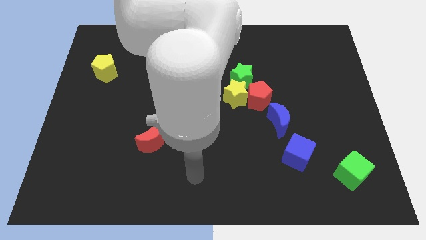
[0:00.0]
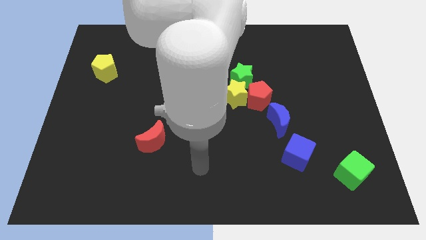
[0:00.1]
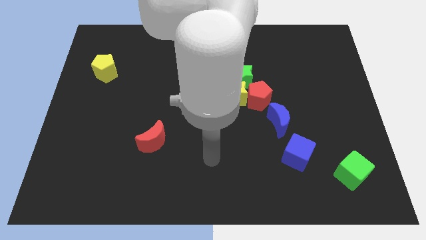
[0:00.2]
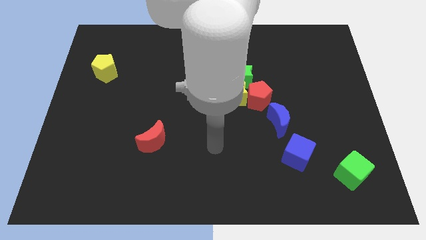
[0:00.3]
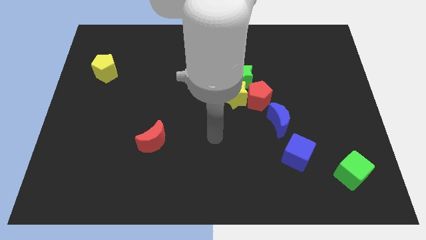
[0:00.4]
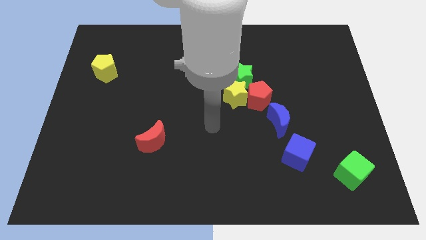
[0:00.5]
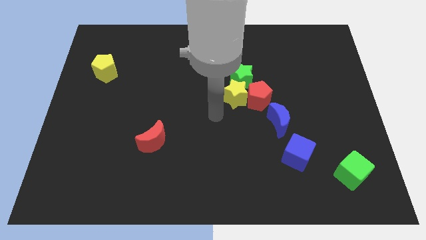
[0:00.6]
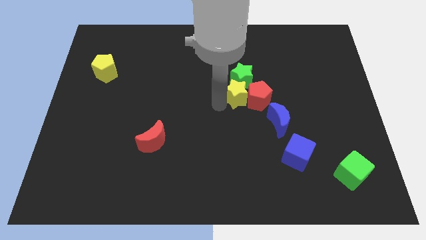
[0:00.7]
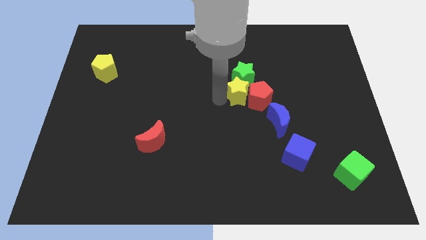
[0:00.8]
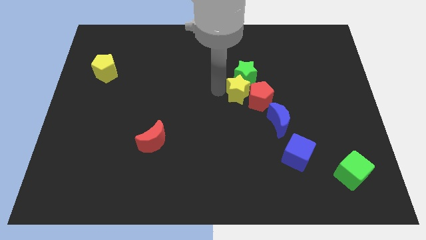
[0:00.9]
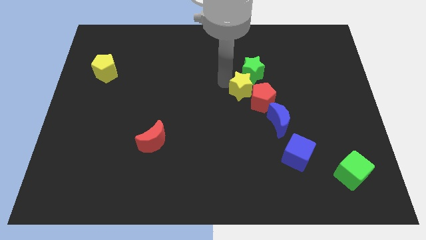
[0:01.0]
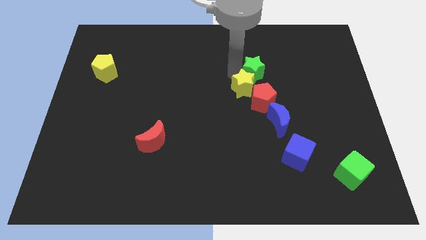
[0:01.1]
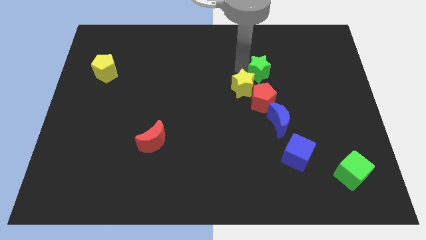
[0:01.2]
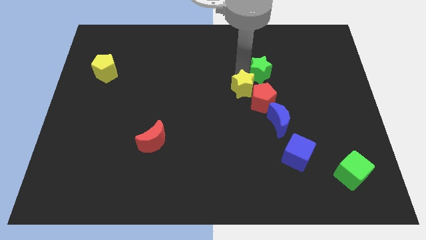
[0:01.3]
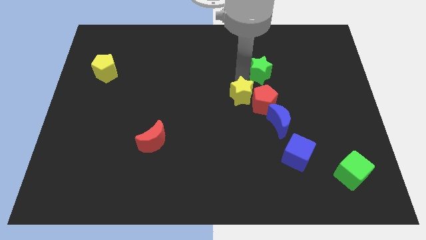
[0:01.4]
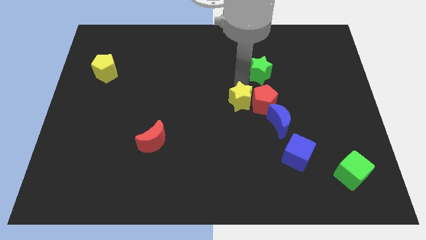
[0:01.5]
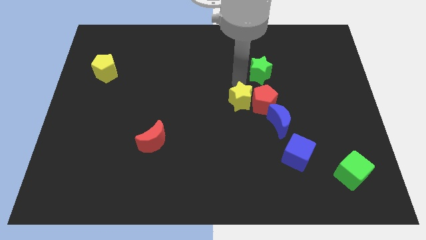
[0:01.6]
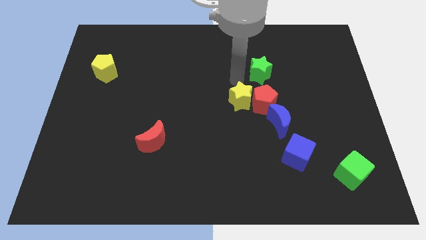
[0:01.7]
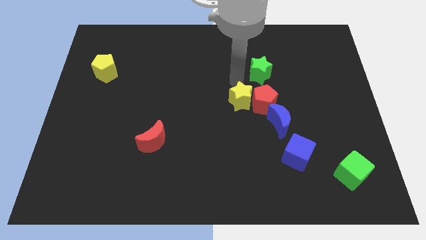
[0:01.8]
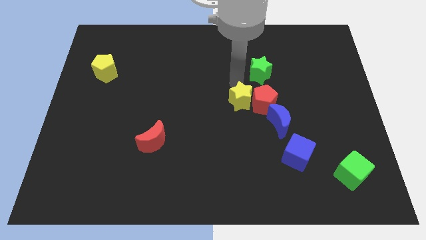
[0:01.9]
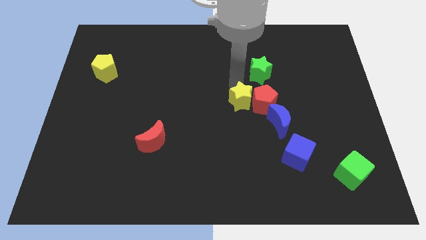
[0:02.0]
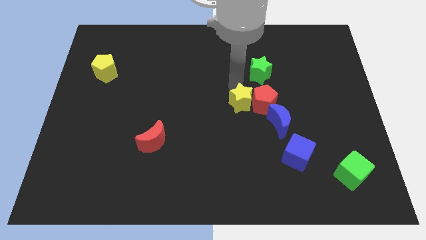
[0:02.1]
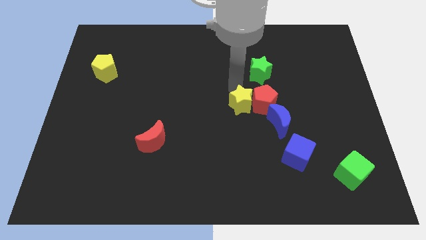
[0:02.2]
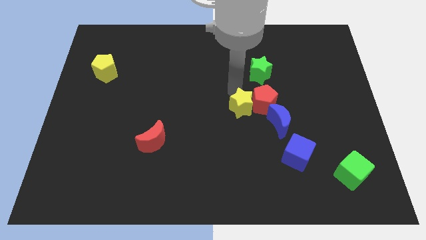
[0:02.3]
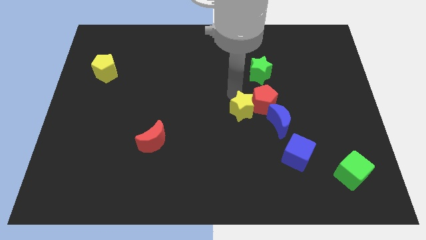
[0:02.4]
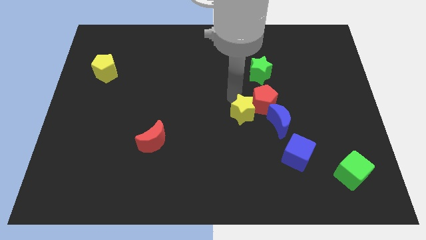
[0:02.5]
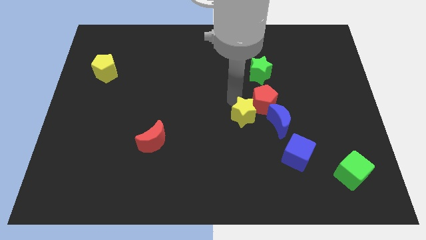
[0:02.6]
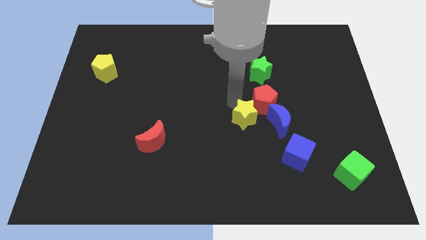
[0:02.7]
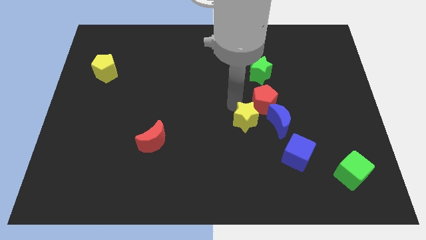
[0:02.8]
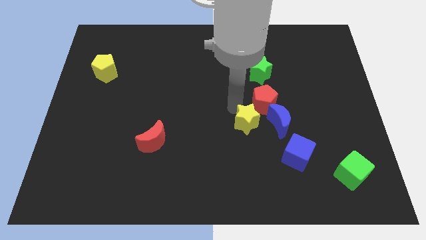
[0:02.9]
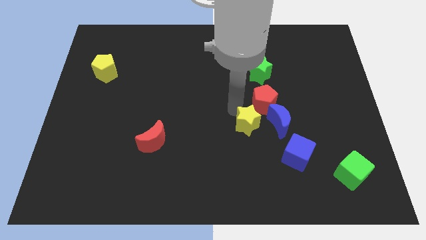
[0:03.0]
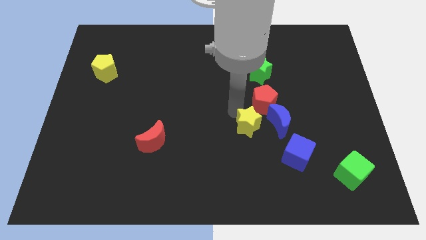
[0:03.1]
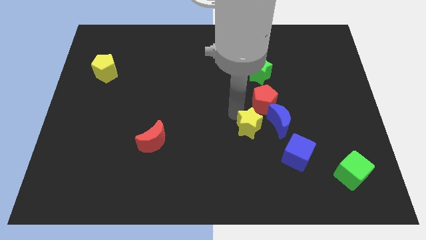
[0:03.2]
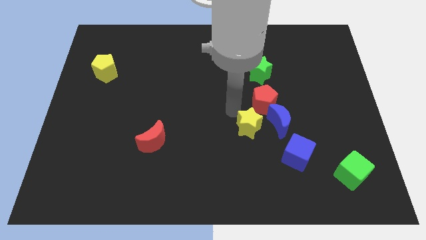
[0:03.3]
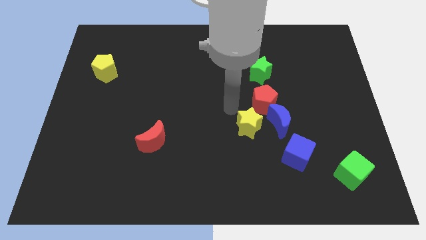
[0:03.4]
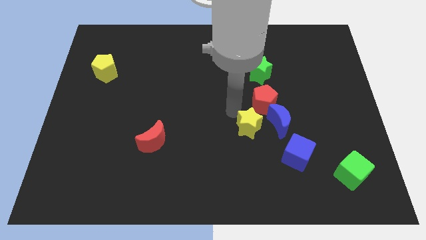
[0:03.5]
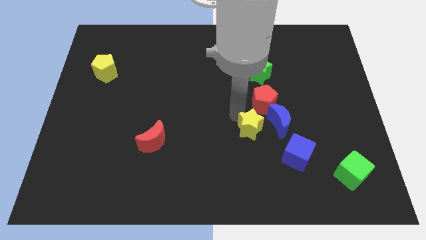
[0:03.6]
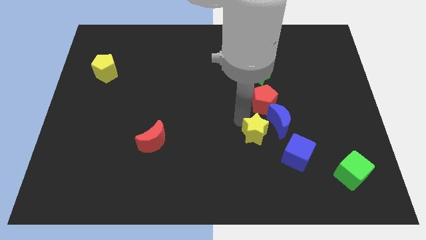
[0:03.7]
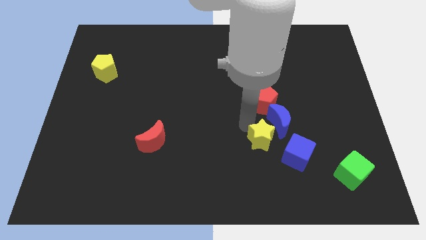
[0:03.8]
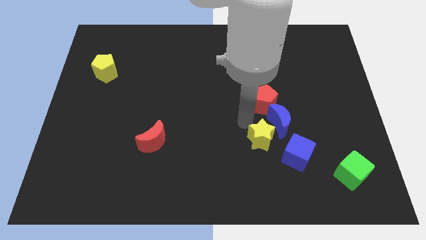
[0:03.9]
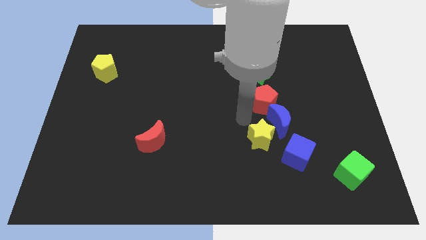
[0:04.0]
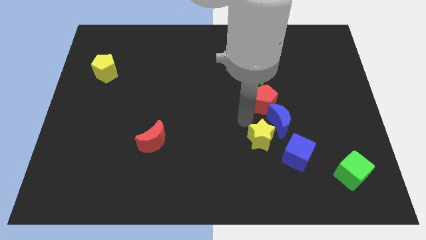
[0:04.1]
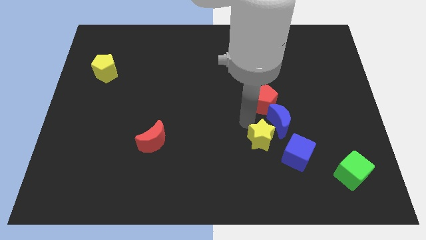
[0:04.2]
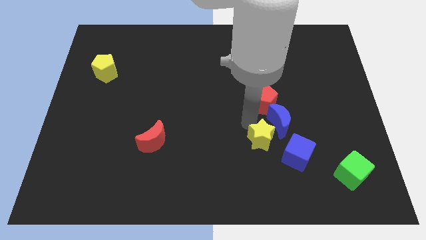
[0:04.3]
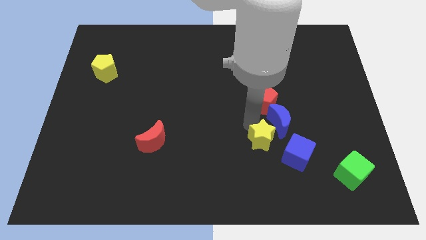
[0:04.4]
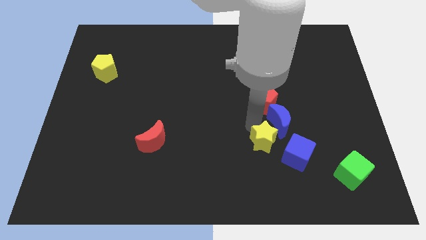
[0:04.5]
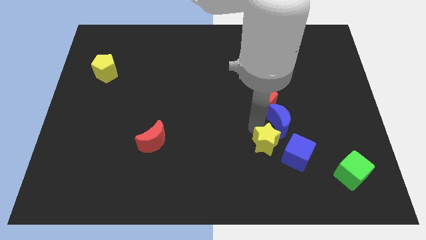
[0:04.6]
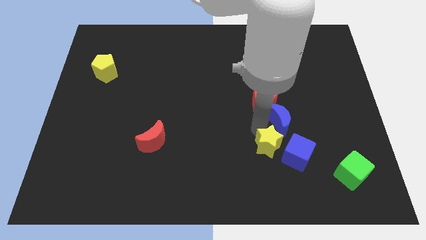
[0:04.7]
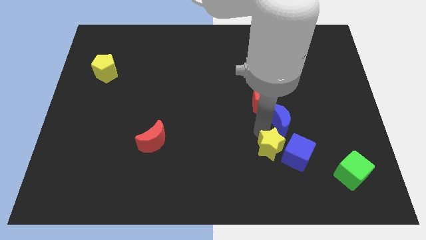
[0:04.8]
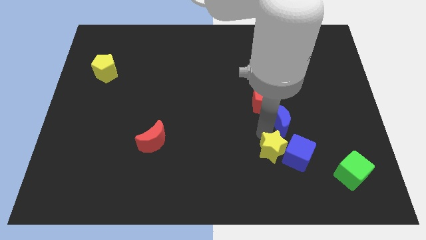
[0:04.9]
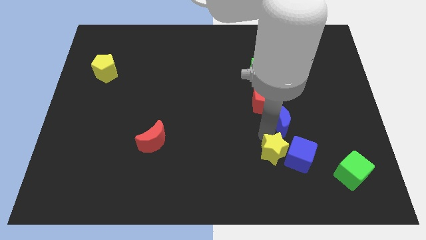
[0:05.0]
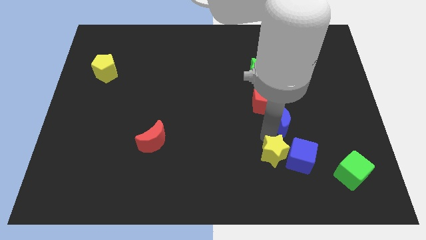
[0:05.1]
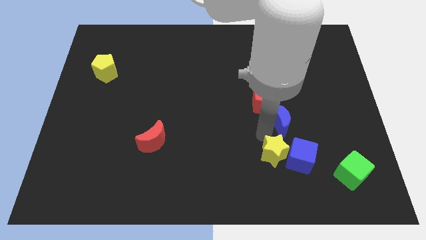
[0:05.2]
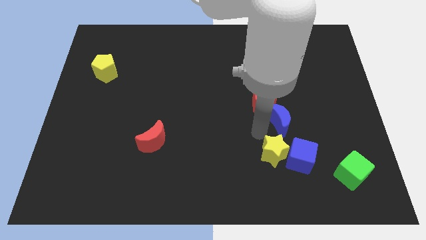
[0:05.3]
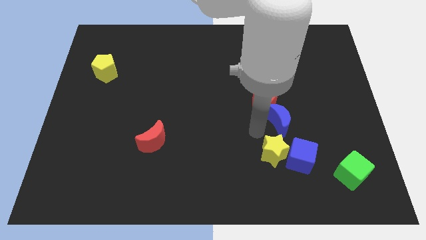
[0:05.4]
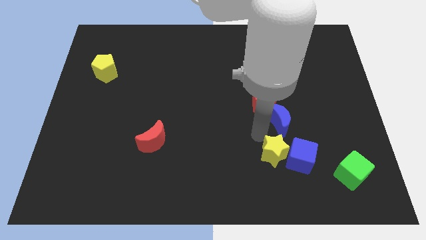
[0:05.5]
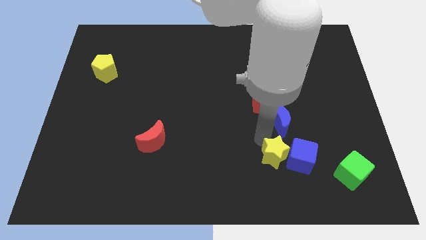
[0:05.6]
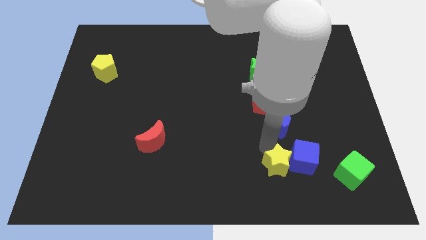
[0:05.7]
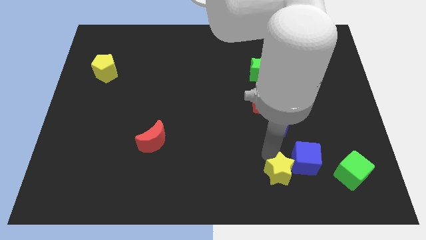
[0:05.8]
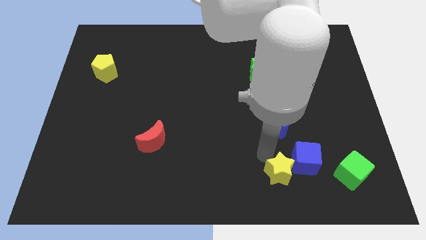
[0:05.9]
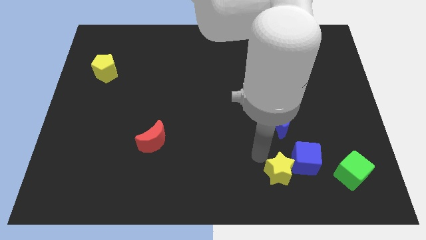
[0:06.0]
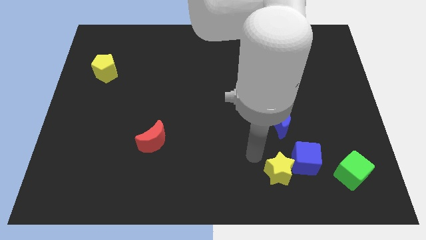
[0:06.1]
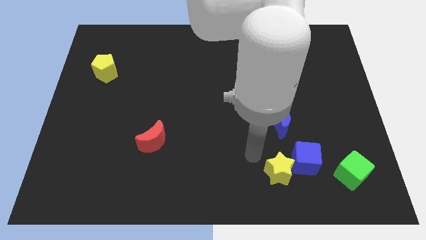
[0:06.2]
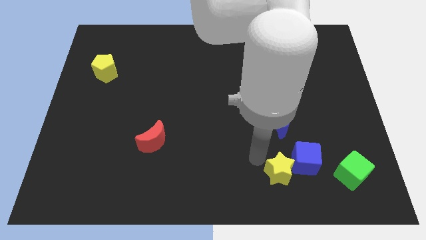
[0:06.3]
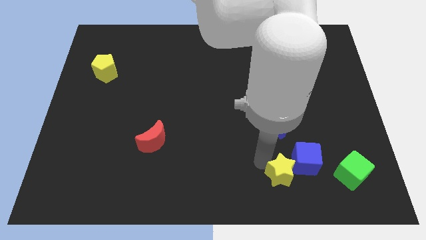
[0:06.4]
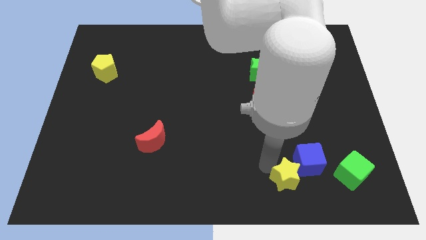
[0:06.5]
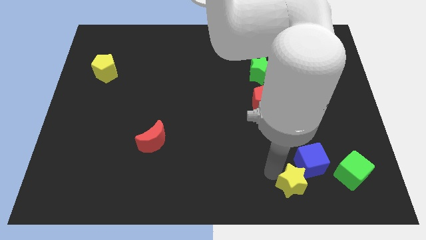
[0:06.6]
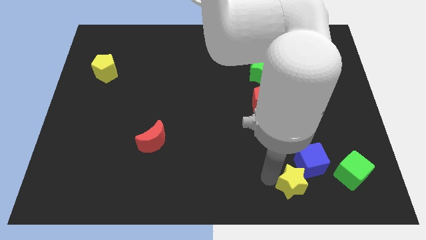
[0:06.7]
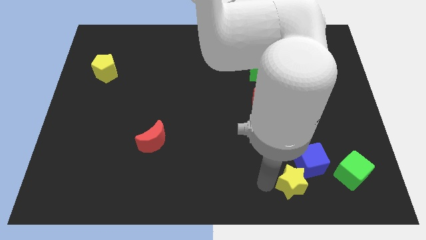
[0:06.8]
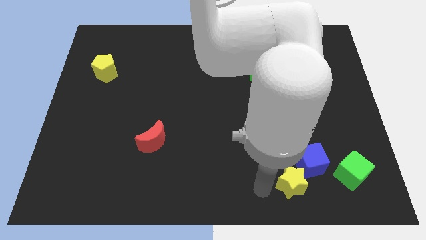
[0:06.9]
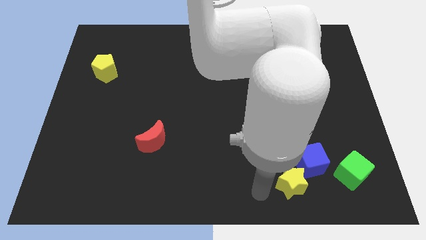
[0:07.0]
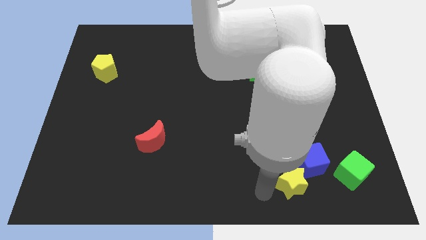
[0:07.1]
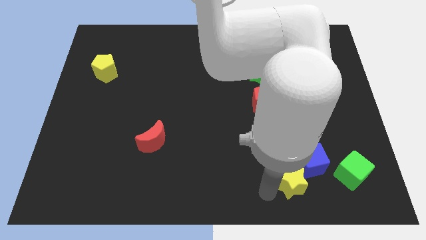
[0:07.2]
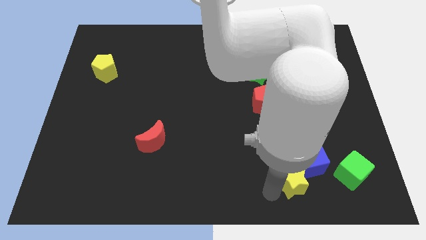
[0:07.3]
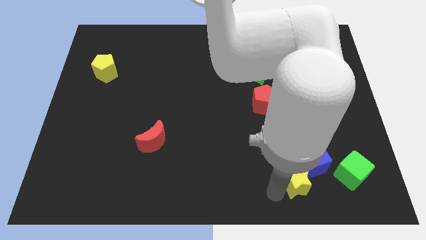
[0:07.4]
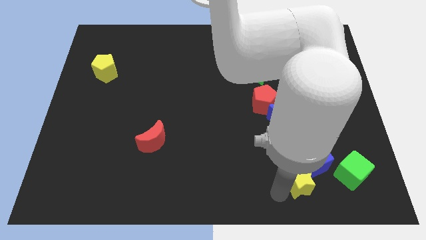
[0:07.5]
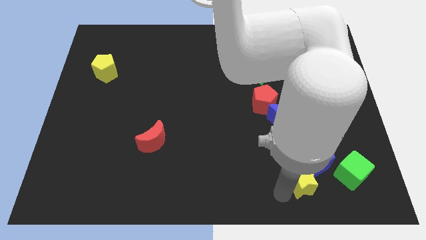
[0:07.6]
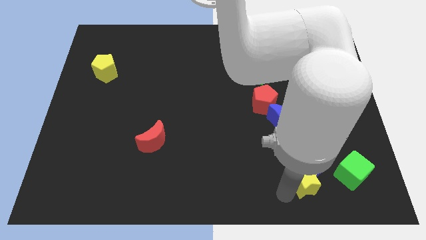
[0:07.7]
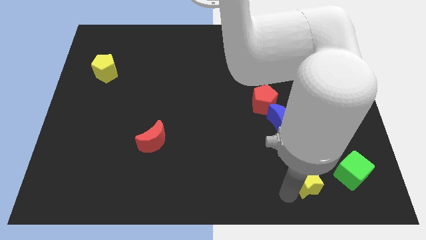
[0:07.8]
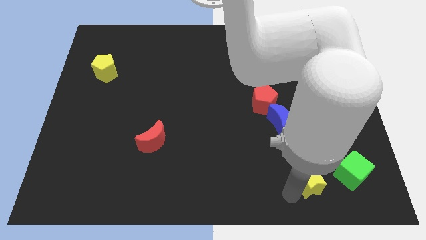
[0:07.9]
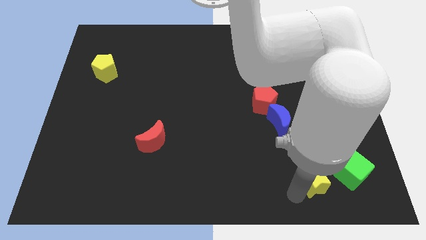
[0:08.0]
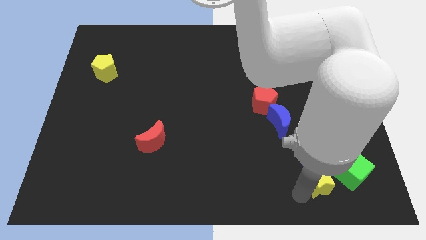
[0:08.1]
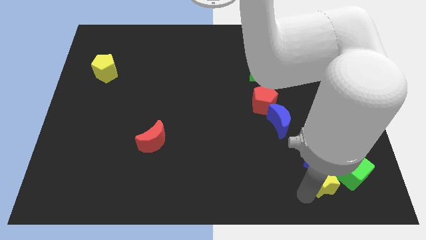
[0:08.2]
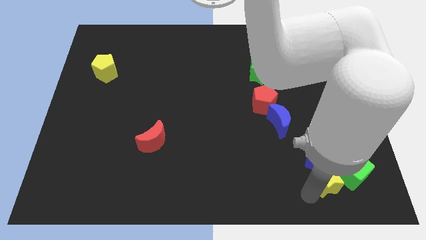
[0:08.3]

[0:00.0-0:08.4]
push the yellow star towards the green cube
